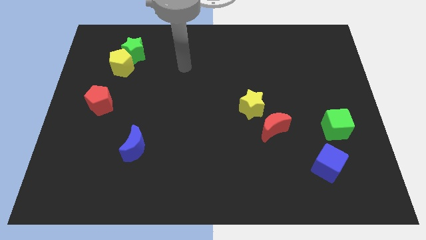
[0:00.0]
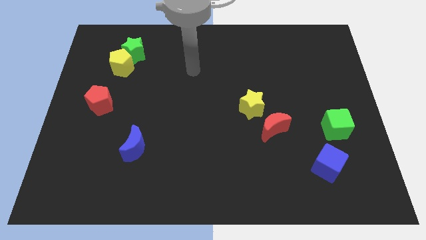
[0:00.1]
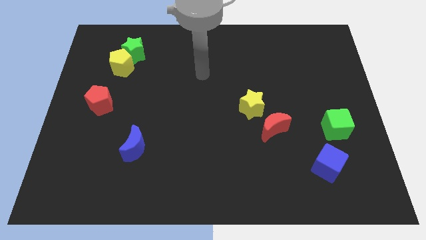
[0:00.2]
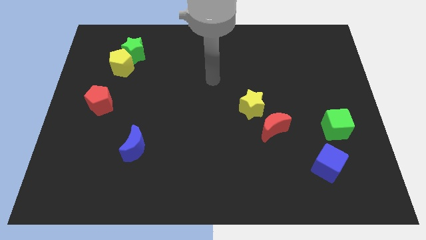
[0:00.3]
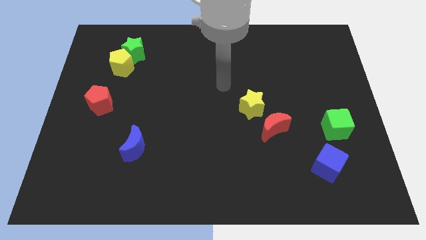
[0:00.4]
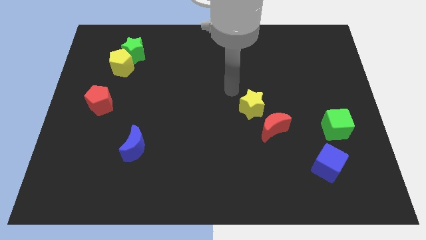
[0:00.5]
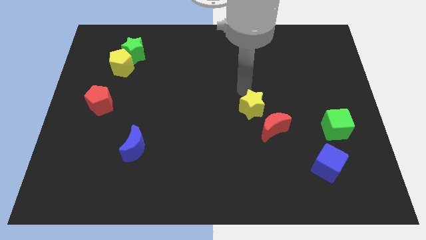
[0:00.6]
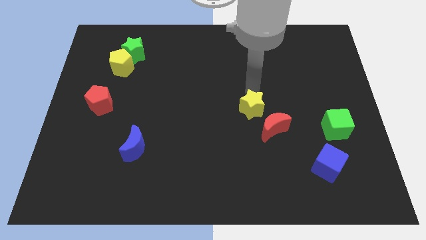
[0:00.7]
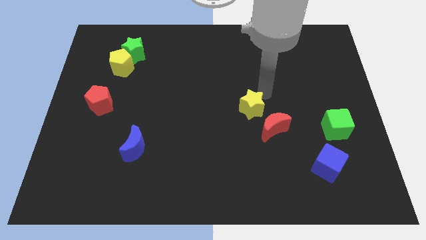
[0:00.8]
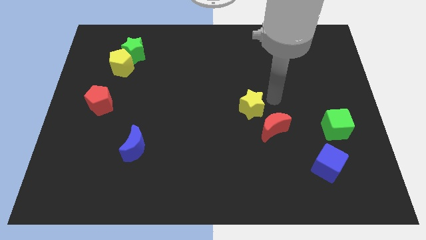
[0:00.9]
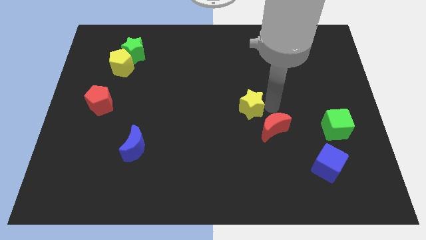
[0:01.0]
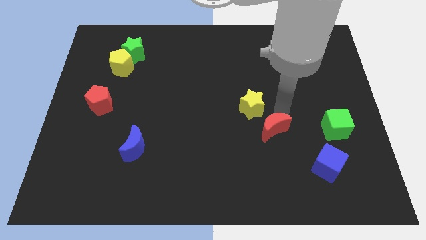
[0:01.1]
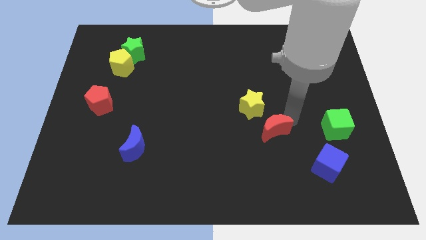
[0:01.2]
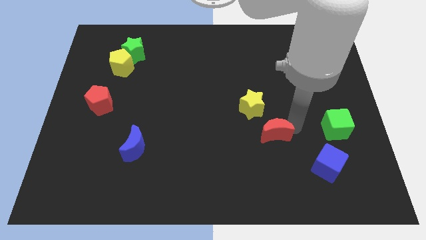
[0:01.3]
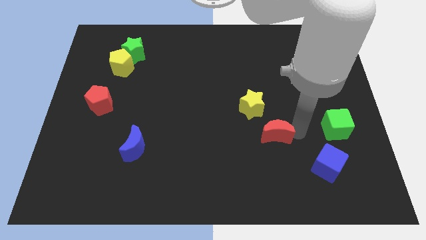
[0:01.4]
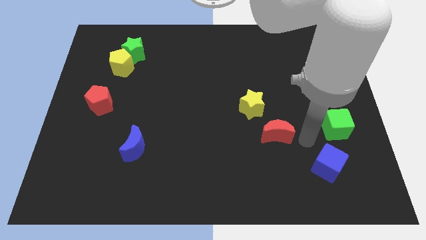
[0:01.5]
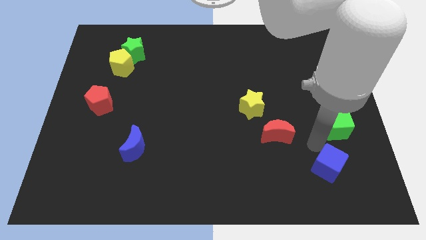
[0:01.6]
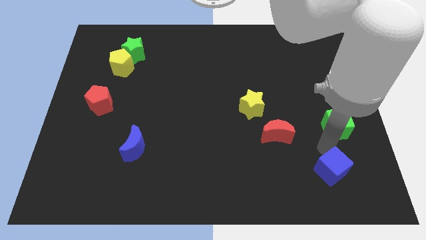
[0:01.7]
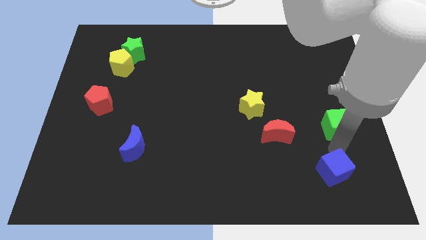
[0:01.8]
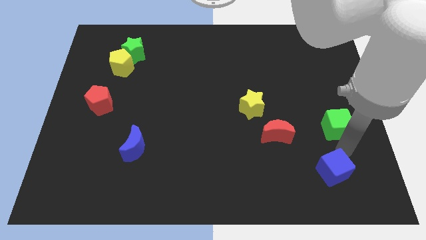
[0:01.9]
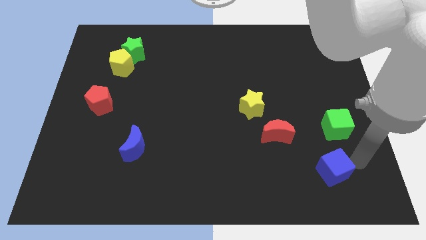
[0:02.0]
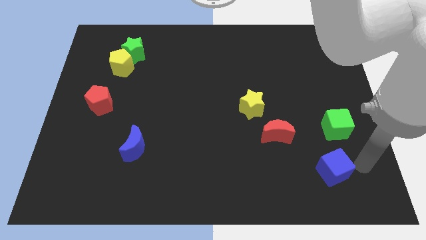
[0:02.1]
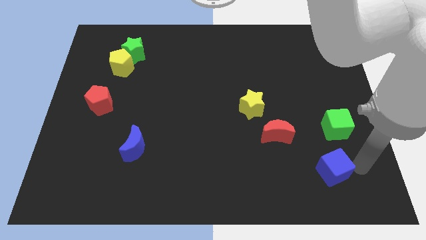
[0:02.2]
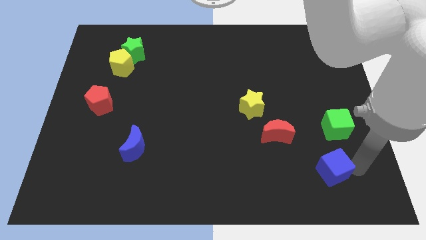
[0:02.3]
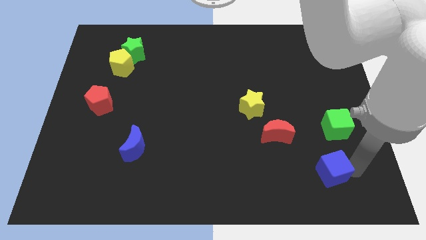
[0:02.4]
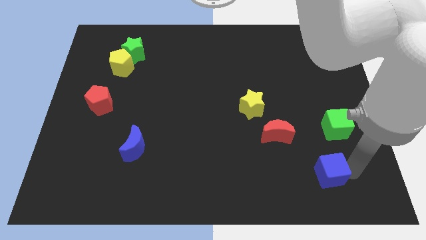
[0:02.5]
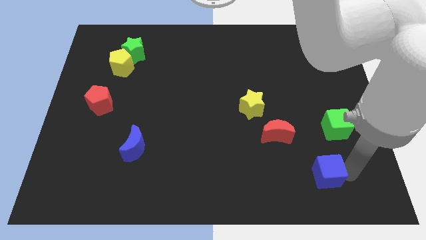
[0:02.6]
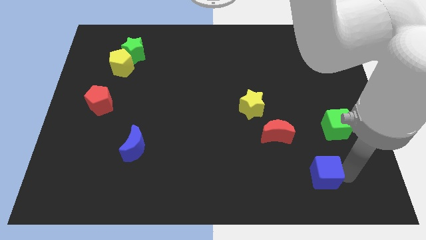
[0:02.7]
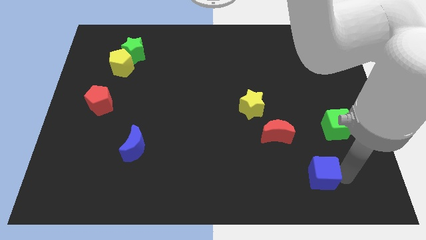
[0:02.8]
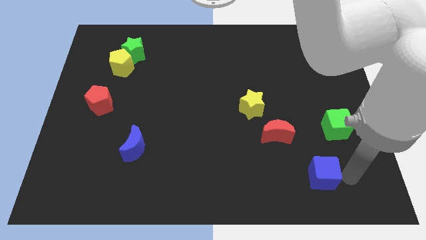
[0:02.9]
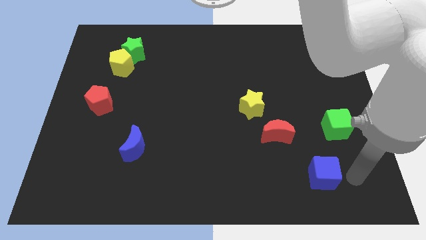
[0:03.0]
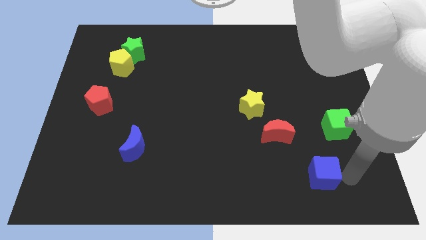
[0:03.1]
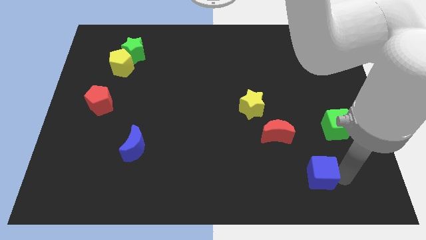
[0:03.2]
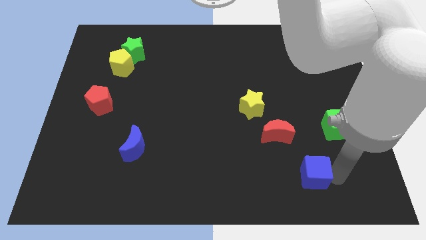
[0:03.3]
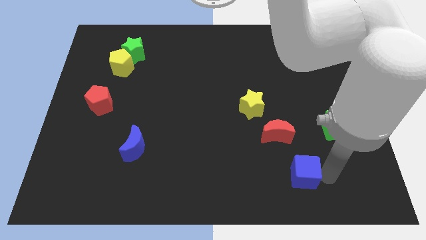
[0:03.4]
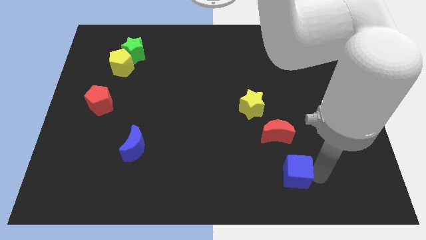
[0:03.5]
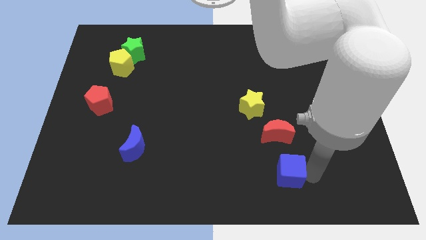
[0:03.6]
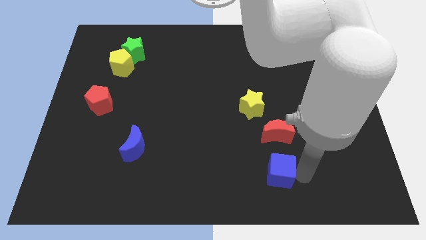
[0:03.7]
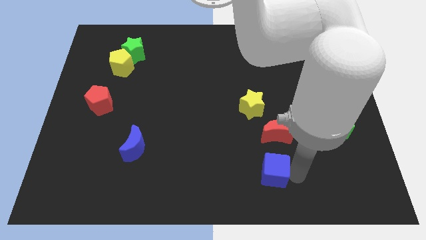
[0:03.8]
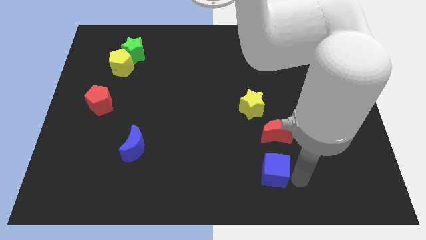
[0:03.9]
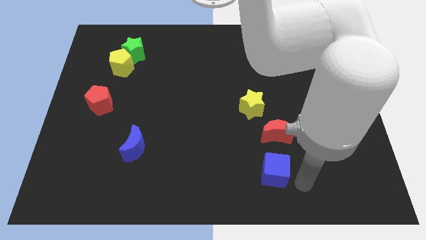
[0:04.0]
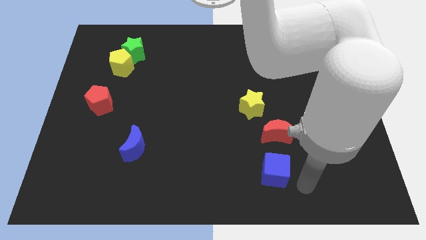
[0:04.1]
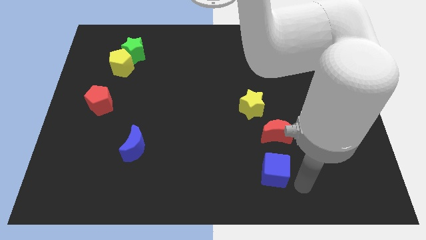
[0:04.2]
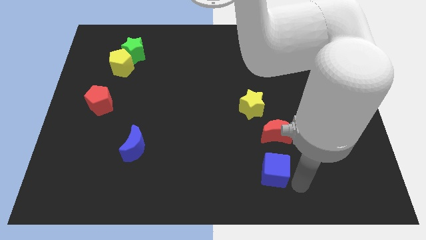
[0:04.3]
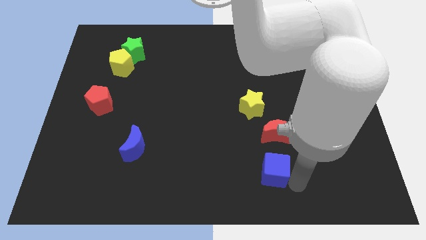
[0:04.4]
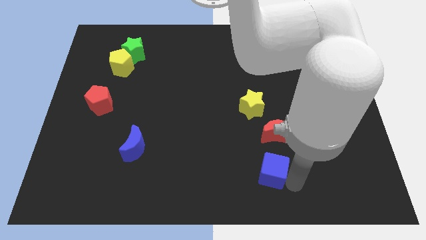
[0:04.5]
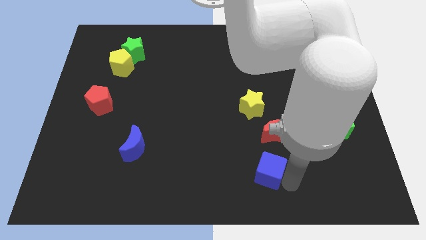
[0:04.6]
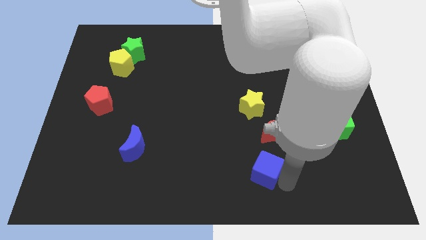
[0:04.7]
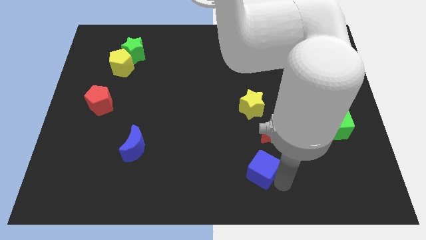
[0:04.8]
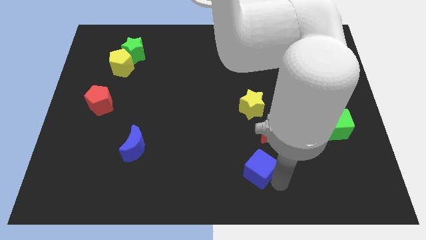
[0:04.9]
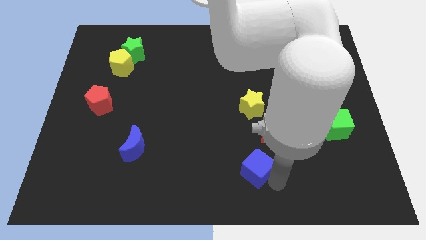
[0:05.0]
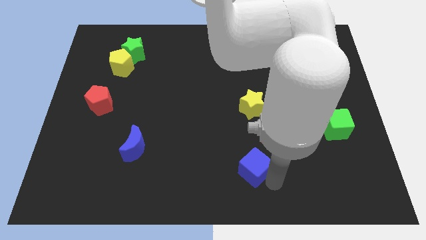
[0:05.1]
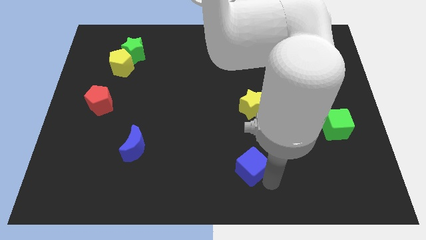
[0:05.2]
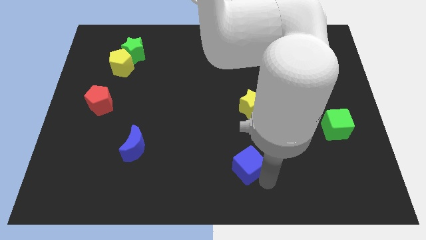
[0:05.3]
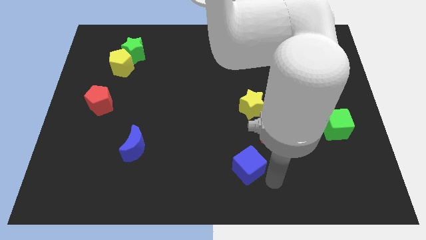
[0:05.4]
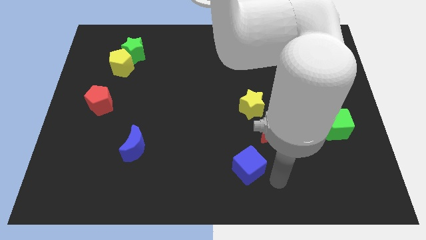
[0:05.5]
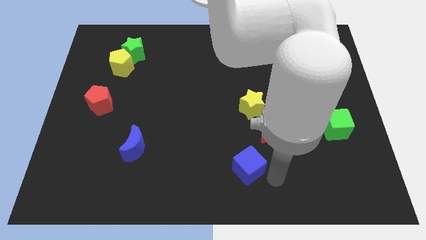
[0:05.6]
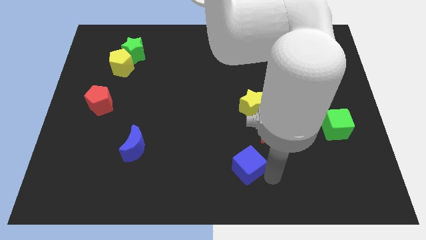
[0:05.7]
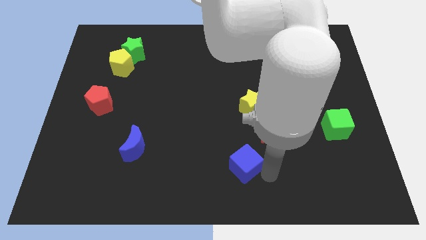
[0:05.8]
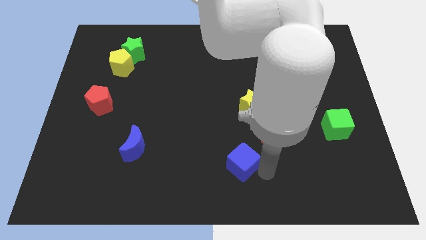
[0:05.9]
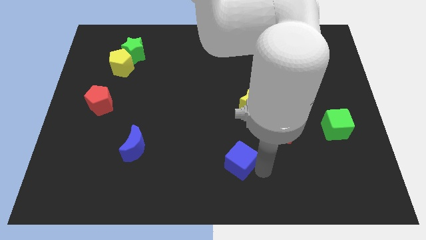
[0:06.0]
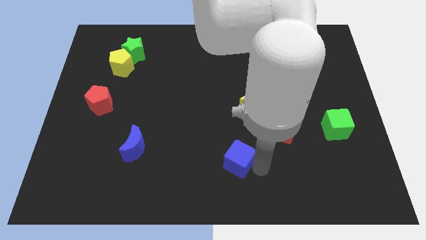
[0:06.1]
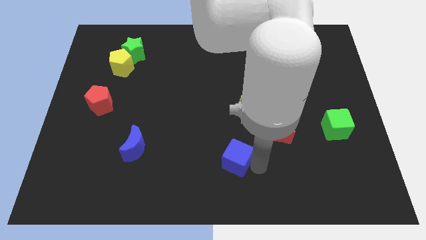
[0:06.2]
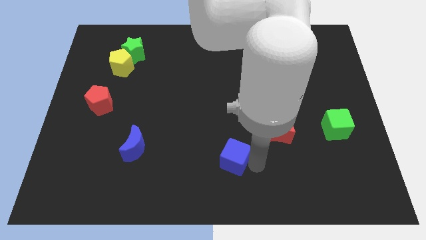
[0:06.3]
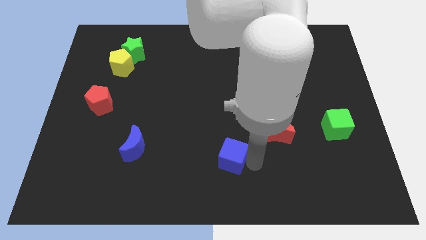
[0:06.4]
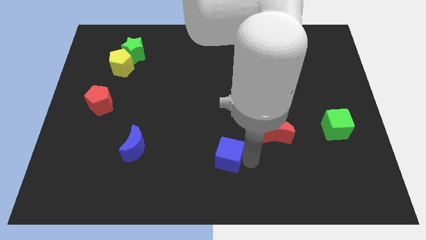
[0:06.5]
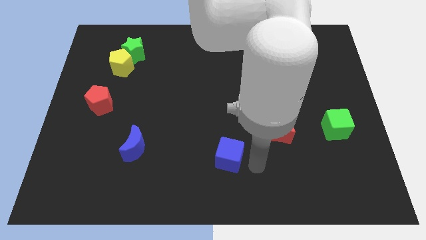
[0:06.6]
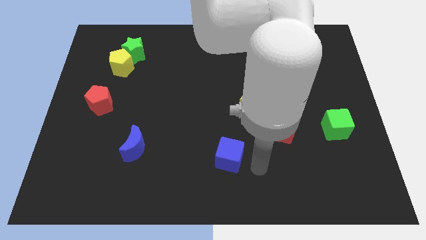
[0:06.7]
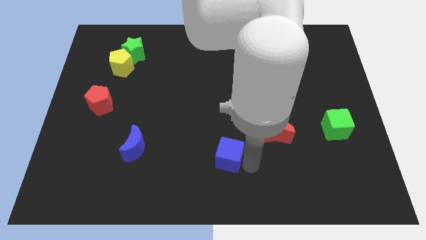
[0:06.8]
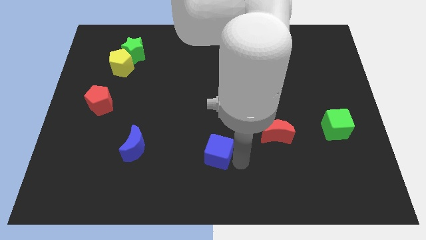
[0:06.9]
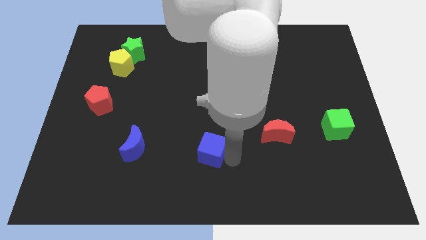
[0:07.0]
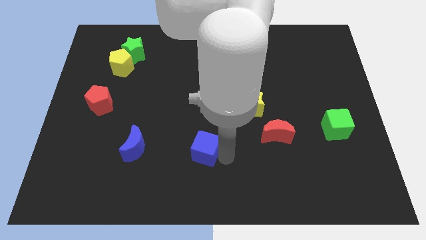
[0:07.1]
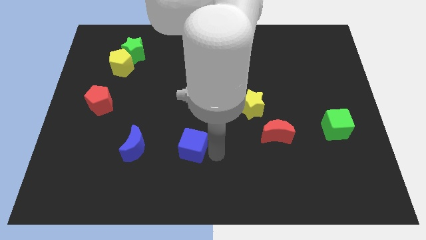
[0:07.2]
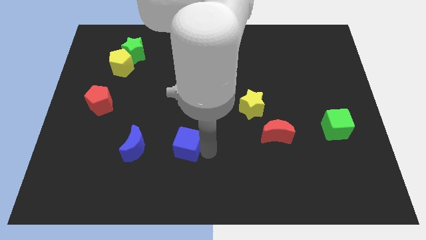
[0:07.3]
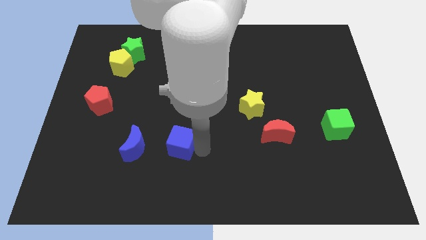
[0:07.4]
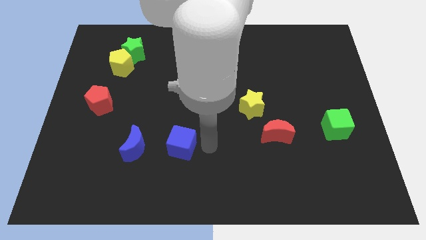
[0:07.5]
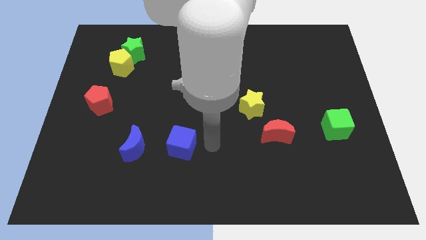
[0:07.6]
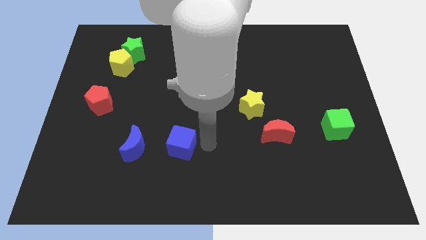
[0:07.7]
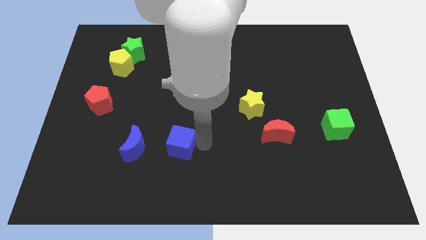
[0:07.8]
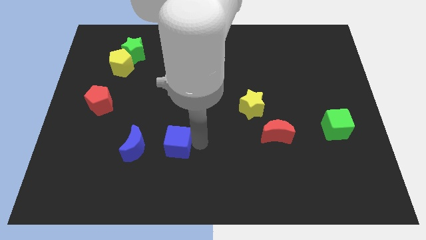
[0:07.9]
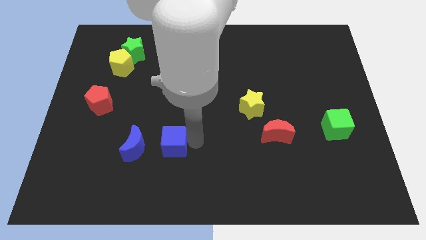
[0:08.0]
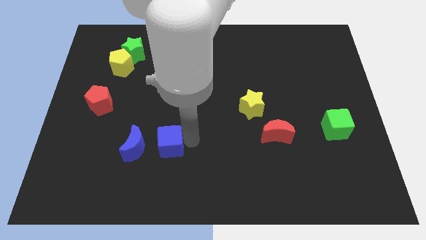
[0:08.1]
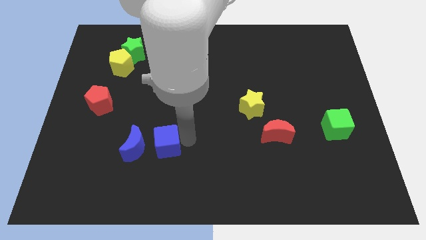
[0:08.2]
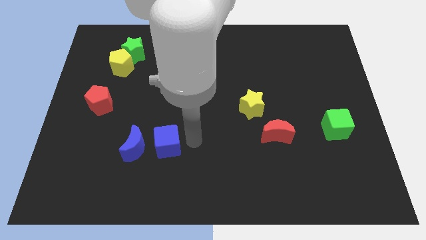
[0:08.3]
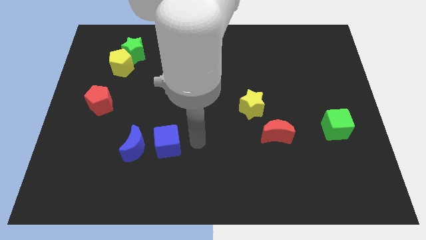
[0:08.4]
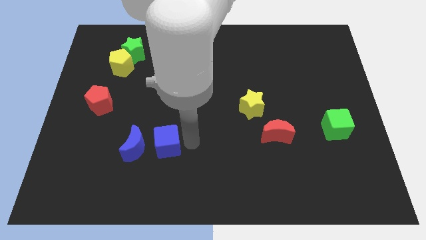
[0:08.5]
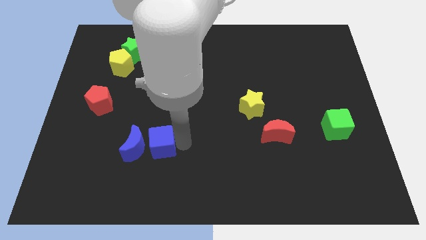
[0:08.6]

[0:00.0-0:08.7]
slide the blue cube towards the blue moon
